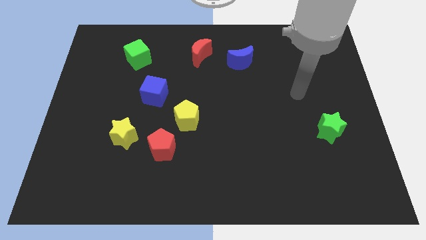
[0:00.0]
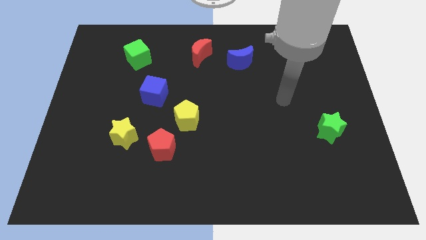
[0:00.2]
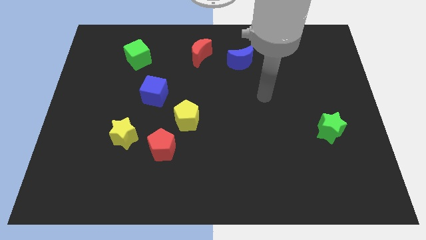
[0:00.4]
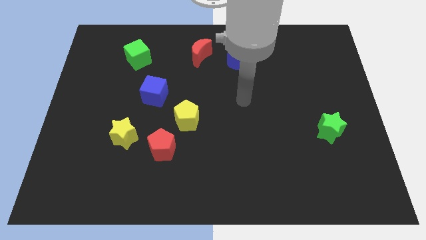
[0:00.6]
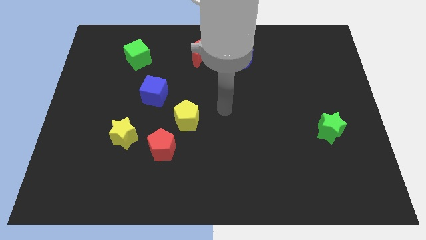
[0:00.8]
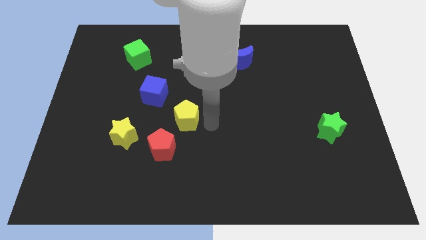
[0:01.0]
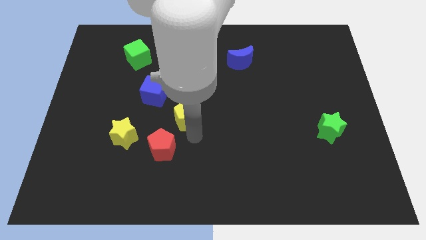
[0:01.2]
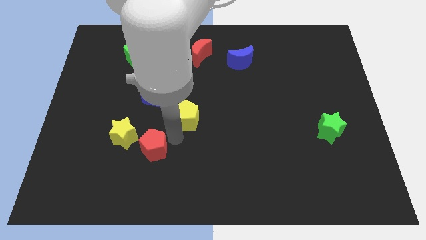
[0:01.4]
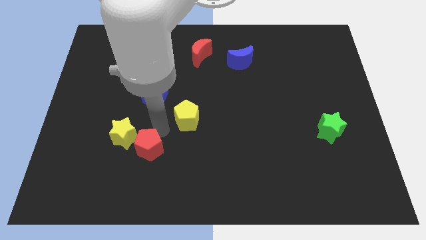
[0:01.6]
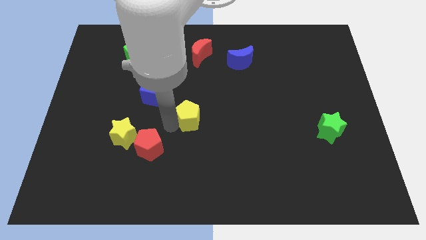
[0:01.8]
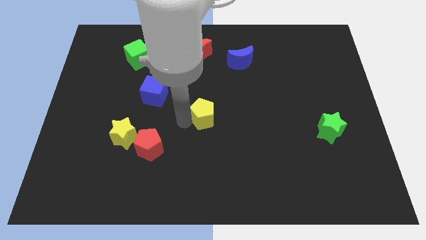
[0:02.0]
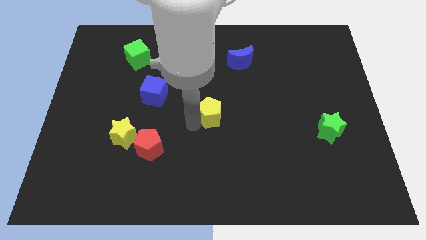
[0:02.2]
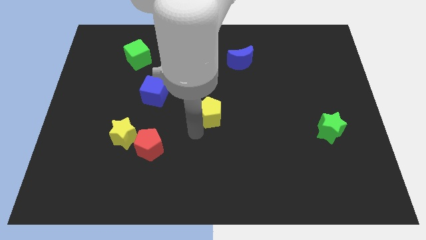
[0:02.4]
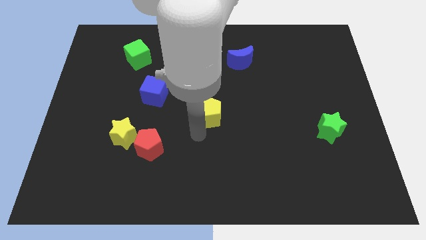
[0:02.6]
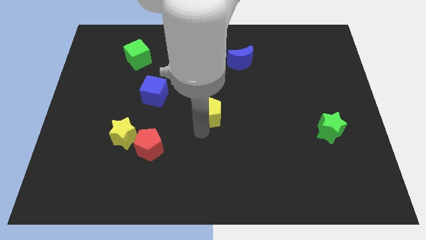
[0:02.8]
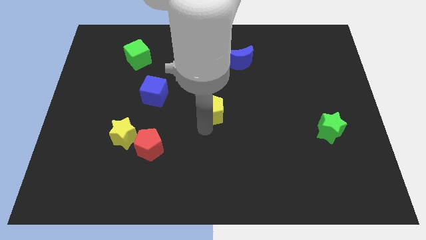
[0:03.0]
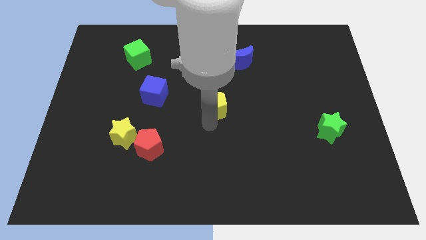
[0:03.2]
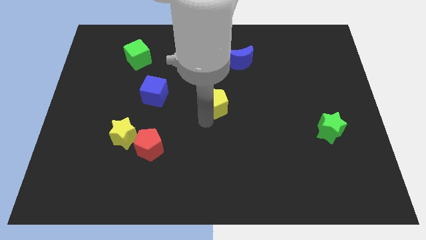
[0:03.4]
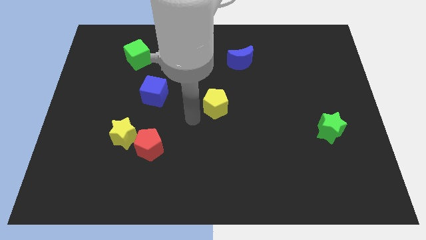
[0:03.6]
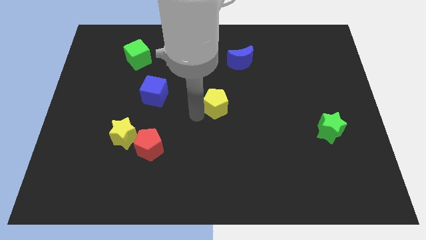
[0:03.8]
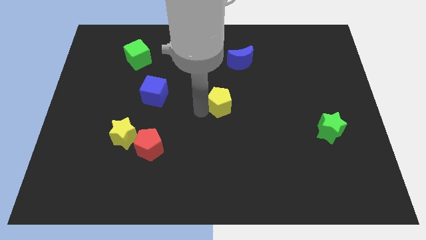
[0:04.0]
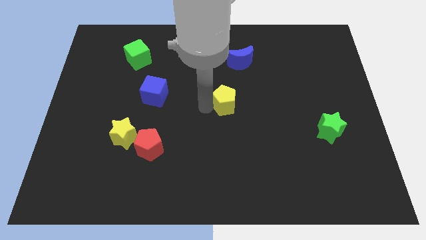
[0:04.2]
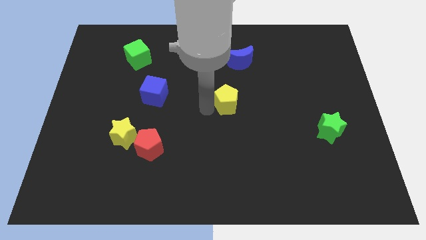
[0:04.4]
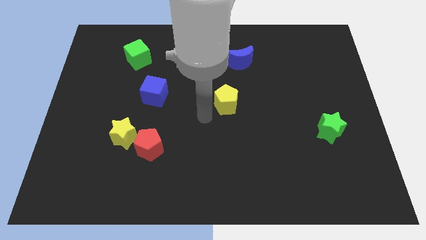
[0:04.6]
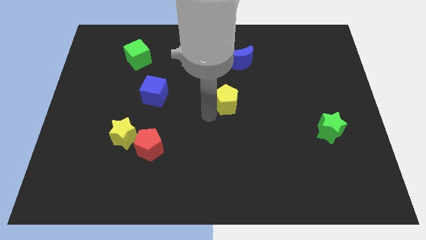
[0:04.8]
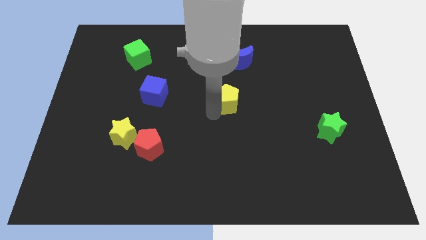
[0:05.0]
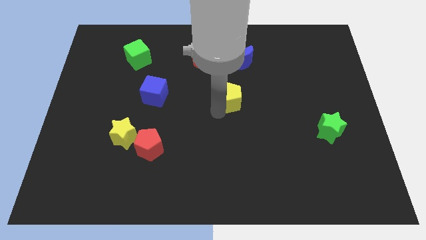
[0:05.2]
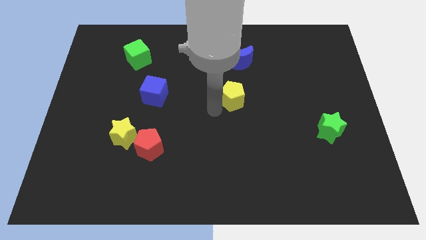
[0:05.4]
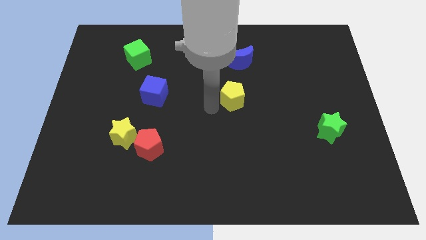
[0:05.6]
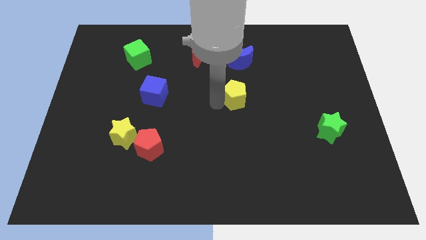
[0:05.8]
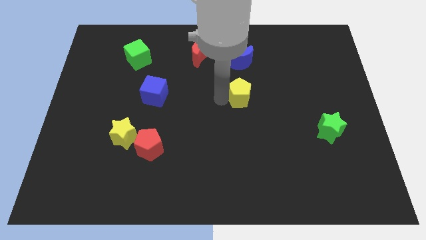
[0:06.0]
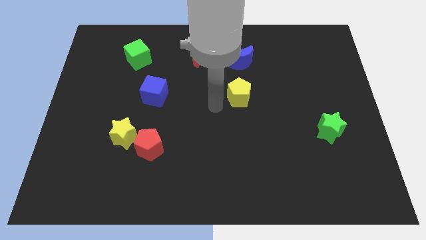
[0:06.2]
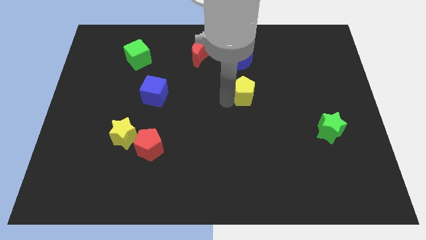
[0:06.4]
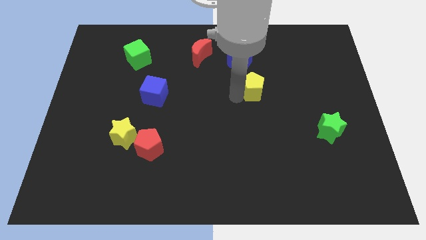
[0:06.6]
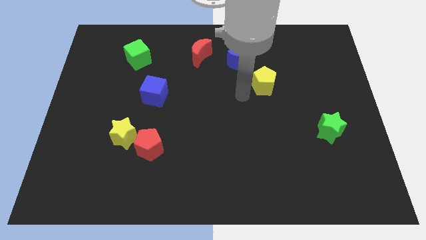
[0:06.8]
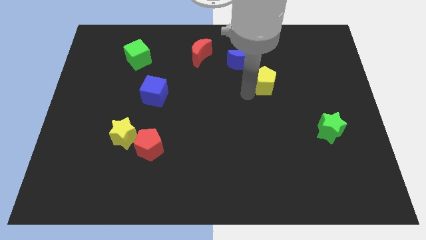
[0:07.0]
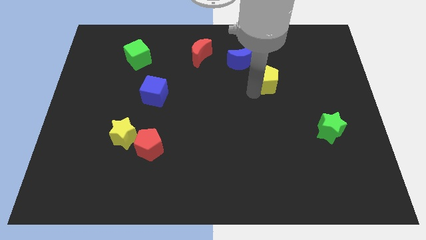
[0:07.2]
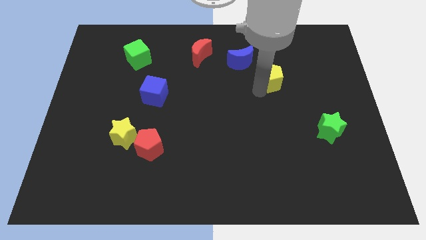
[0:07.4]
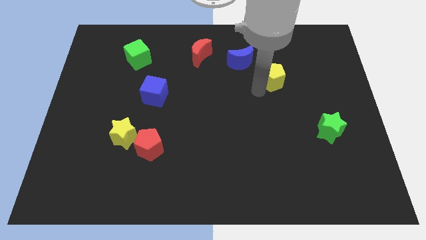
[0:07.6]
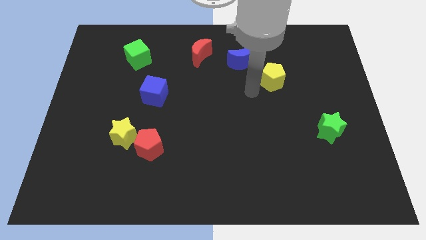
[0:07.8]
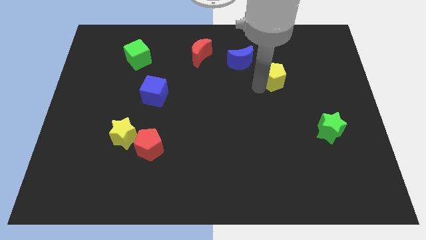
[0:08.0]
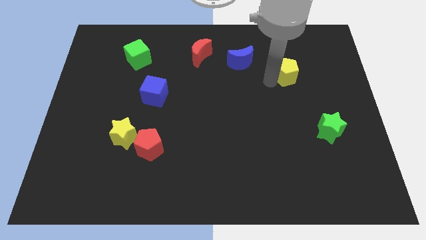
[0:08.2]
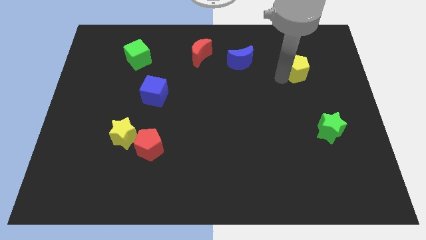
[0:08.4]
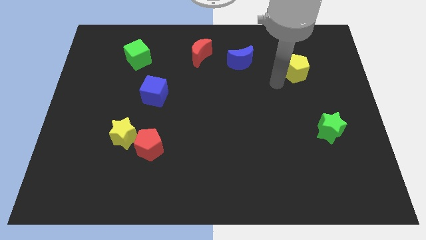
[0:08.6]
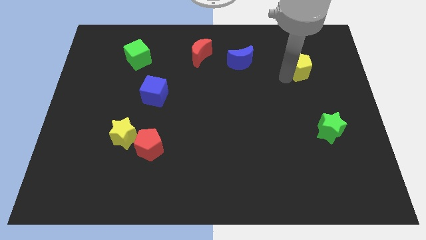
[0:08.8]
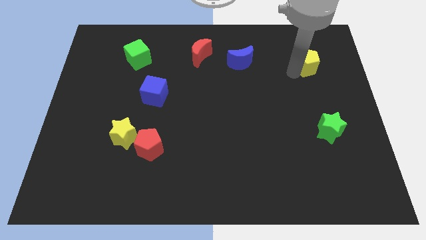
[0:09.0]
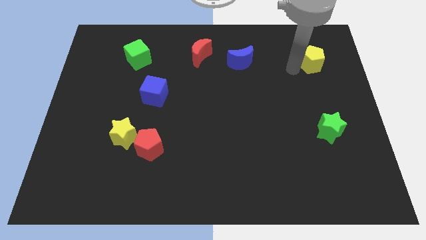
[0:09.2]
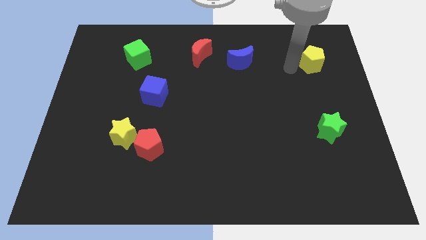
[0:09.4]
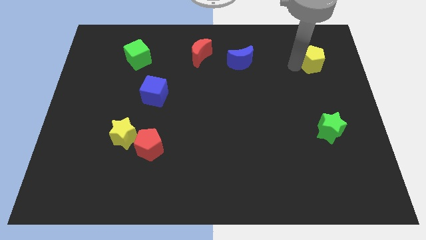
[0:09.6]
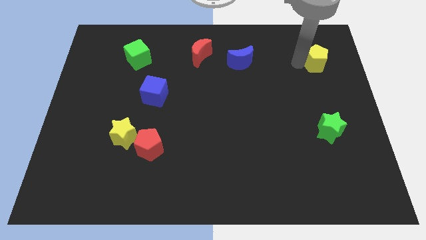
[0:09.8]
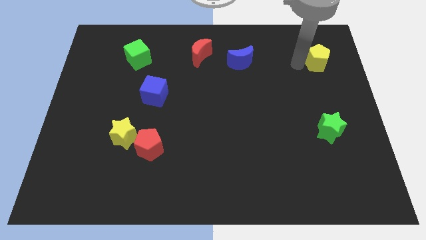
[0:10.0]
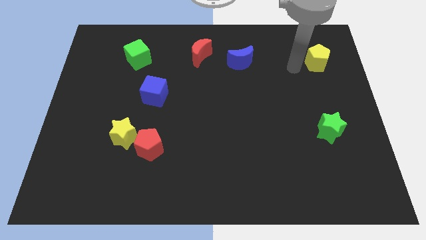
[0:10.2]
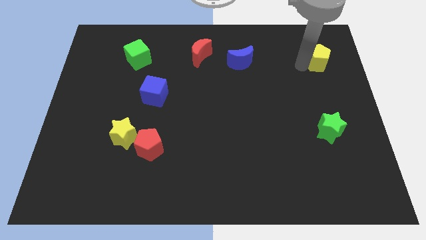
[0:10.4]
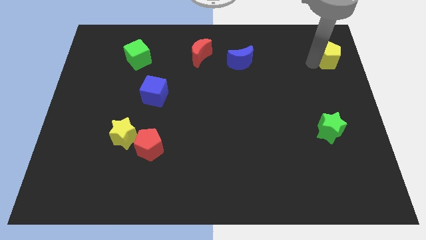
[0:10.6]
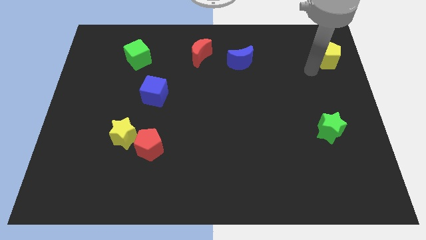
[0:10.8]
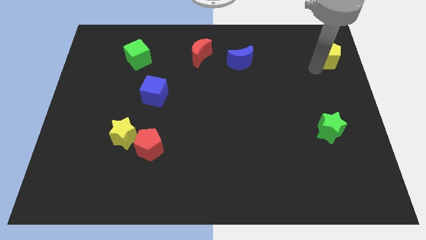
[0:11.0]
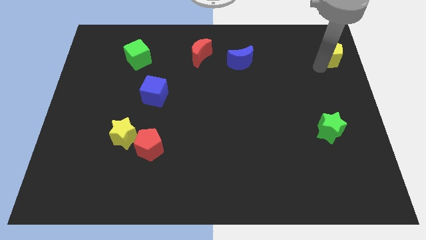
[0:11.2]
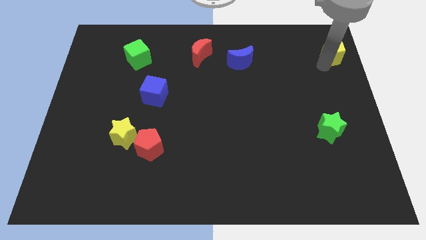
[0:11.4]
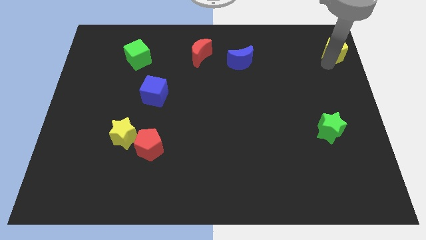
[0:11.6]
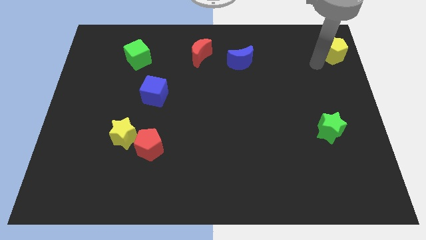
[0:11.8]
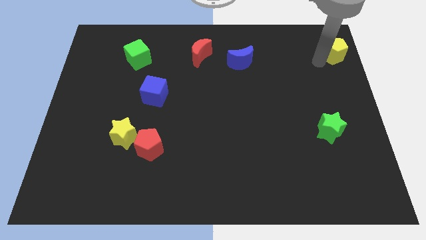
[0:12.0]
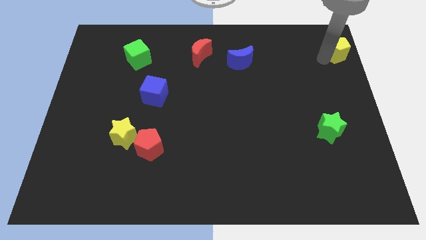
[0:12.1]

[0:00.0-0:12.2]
move the yellow pentagon to the top right of the board
